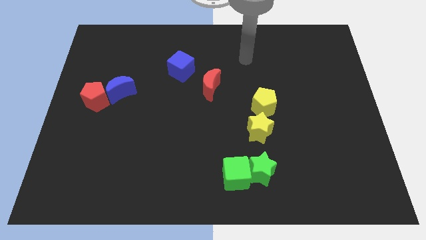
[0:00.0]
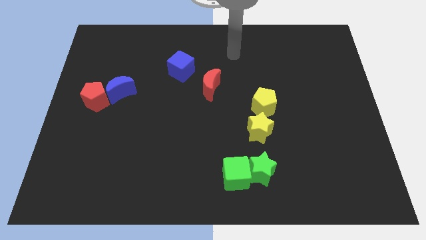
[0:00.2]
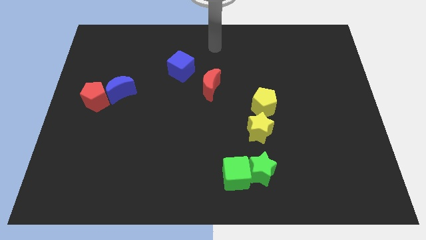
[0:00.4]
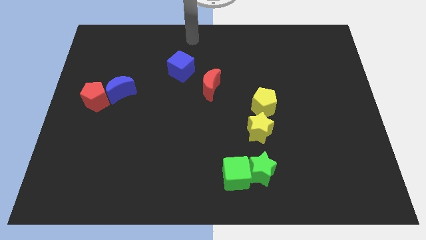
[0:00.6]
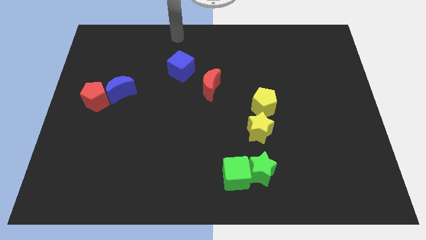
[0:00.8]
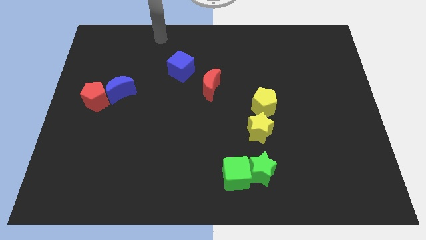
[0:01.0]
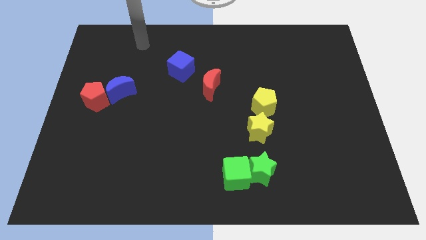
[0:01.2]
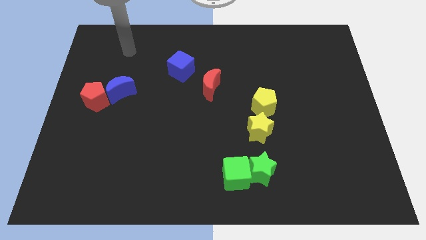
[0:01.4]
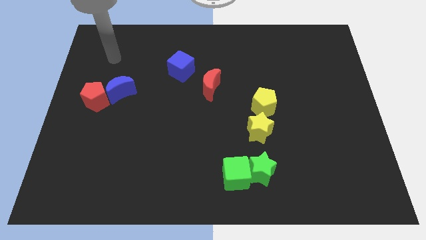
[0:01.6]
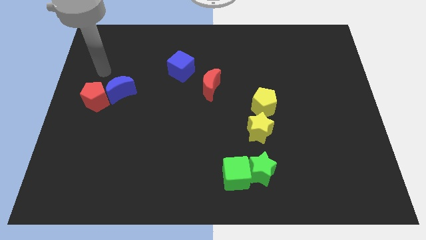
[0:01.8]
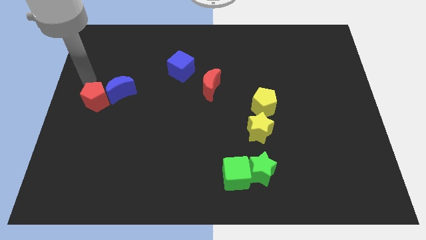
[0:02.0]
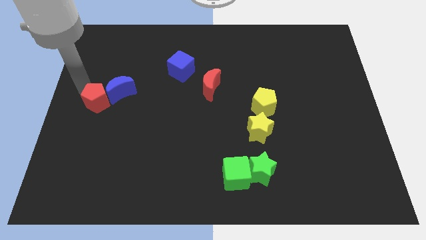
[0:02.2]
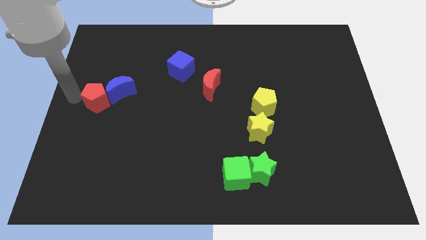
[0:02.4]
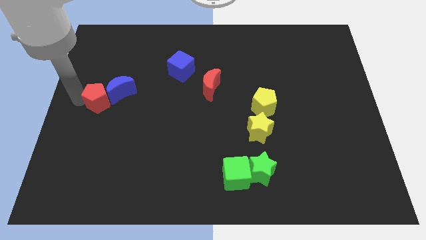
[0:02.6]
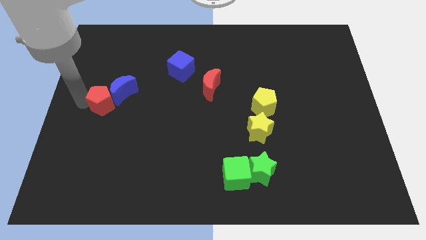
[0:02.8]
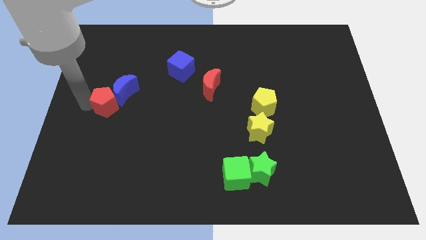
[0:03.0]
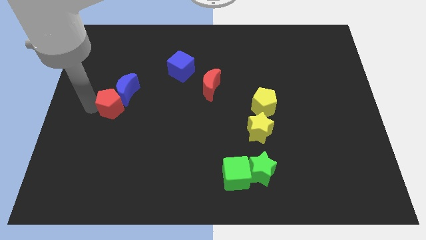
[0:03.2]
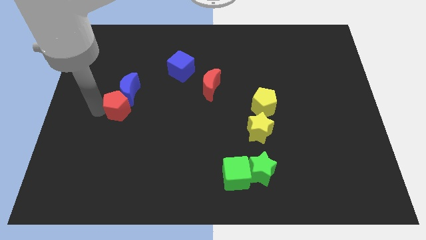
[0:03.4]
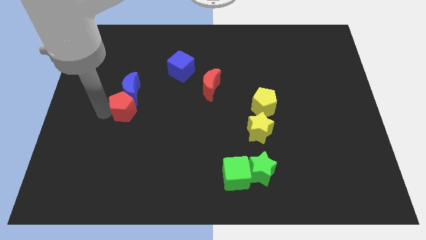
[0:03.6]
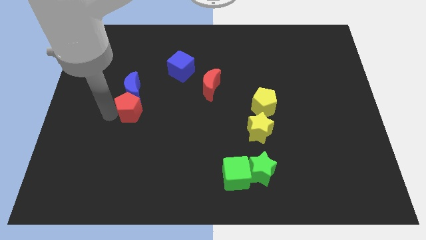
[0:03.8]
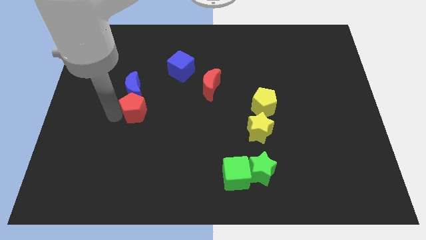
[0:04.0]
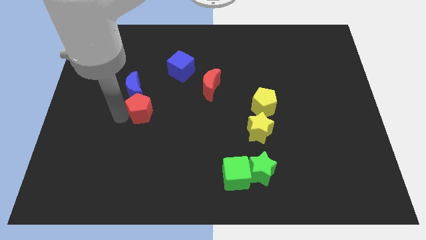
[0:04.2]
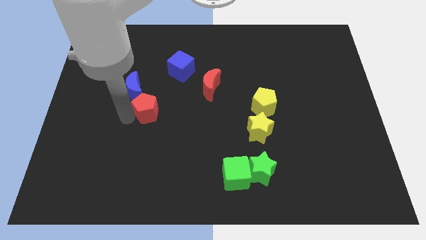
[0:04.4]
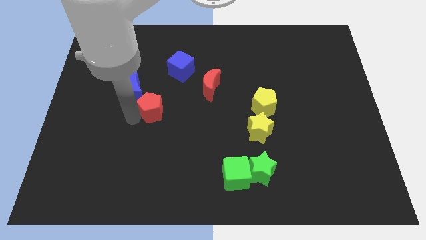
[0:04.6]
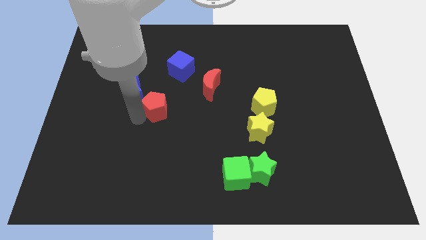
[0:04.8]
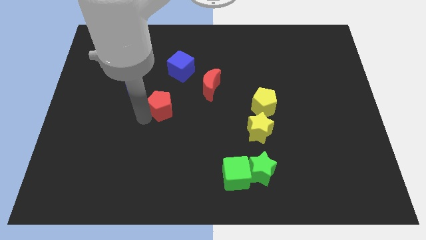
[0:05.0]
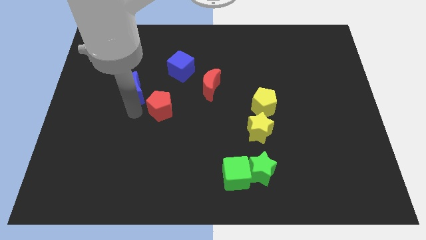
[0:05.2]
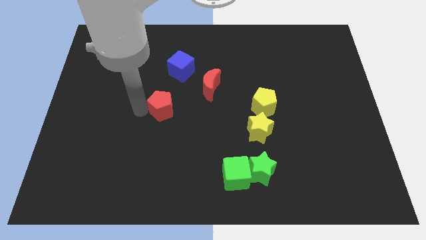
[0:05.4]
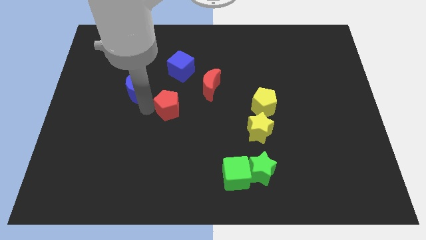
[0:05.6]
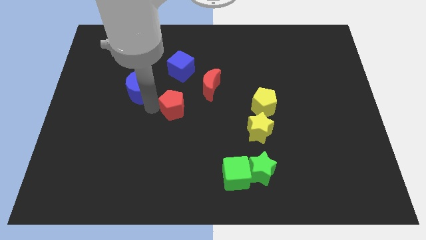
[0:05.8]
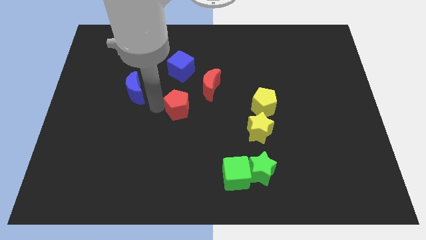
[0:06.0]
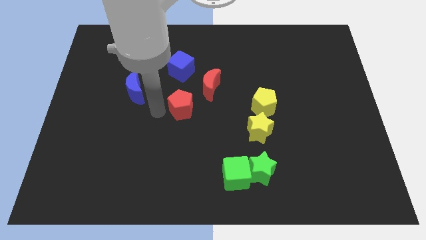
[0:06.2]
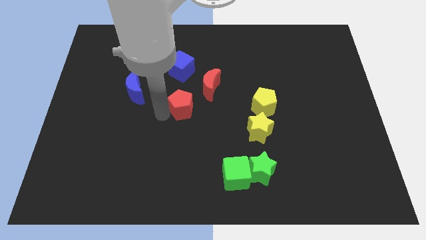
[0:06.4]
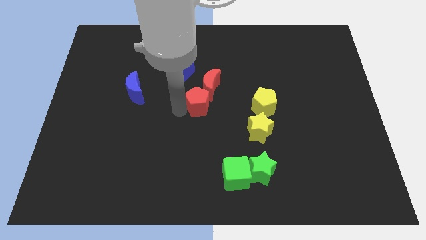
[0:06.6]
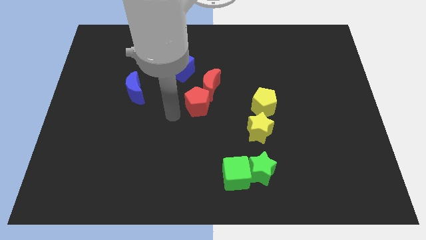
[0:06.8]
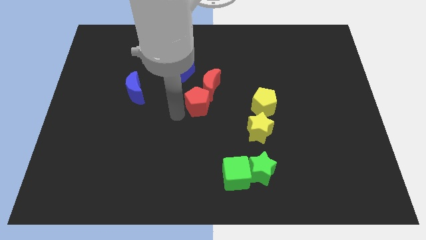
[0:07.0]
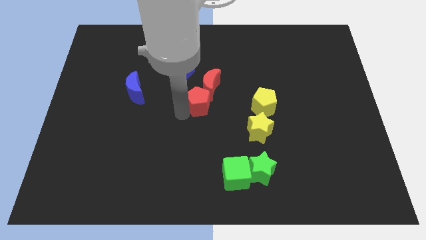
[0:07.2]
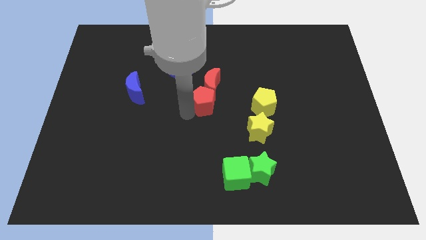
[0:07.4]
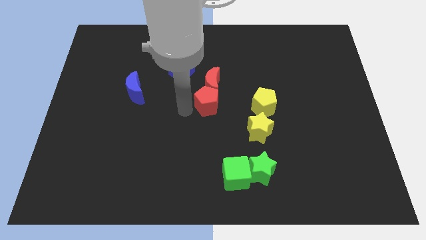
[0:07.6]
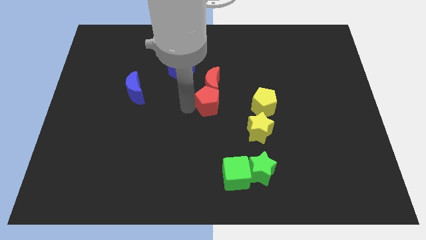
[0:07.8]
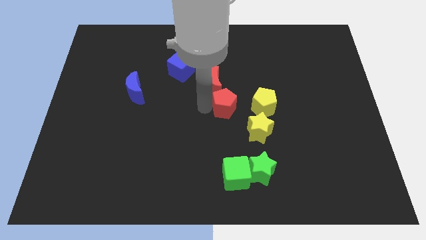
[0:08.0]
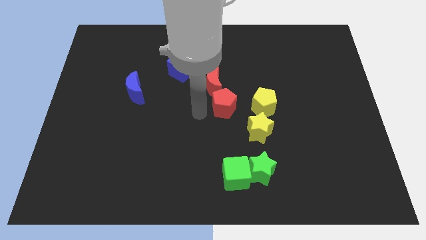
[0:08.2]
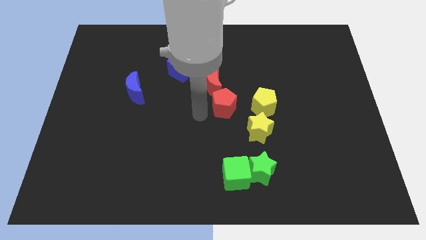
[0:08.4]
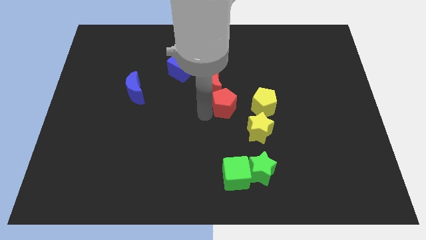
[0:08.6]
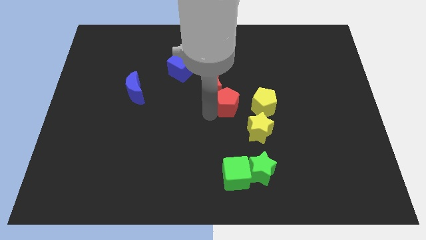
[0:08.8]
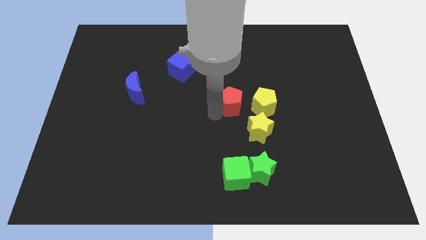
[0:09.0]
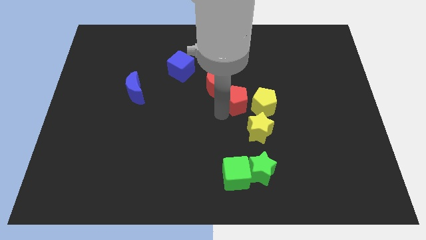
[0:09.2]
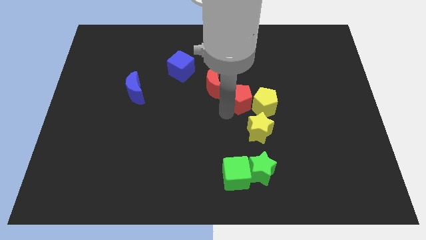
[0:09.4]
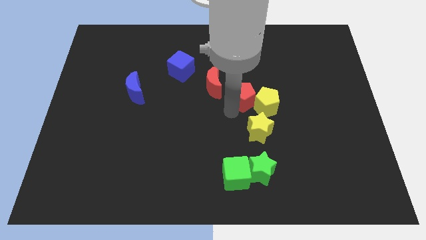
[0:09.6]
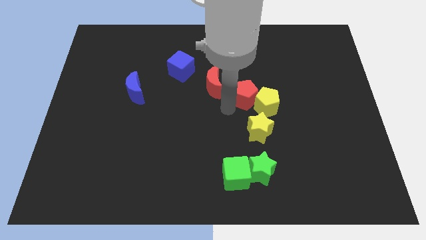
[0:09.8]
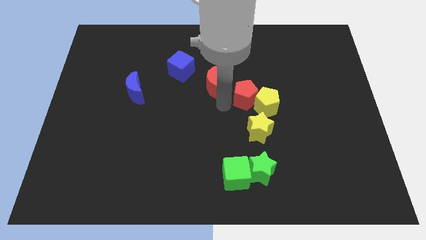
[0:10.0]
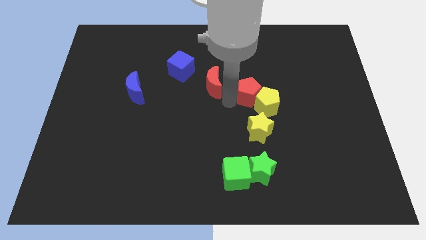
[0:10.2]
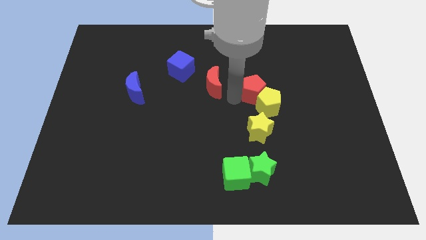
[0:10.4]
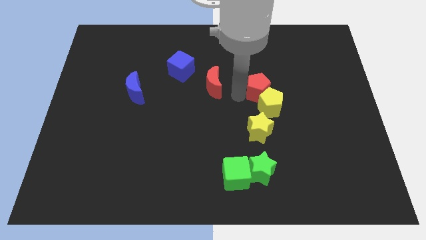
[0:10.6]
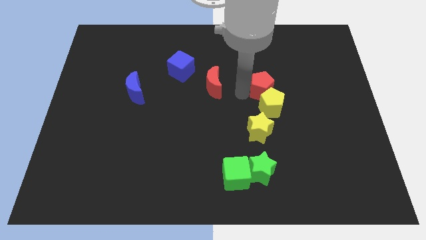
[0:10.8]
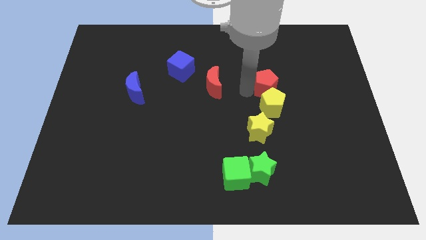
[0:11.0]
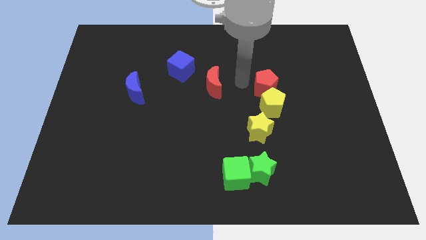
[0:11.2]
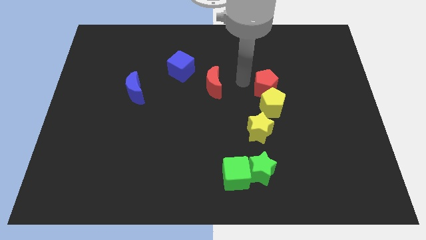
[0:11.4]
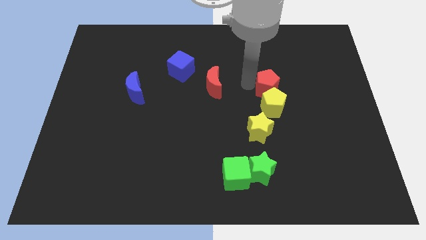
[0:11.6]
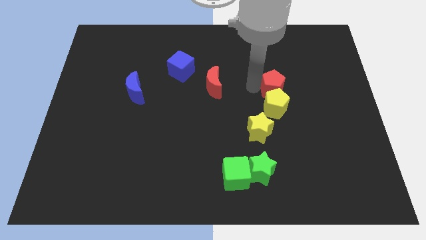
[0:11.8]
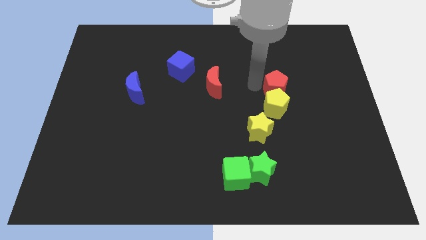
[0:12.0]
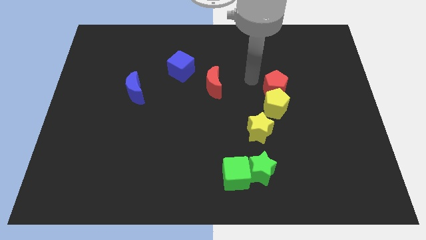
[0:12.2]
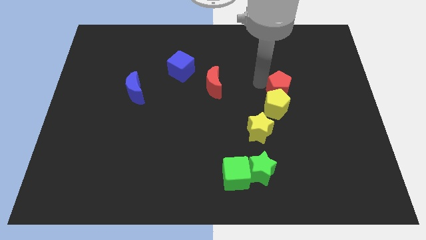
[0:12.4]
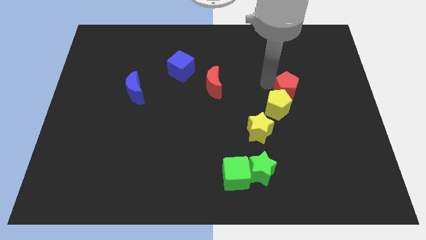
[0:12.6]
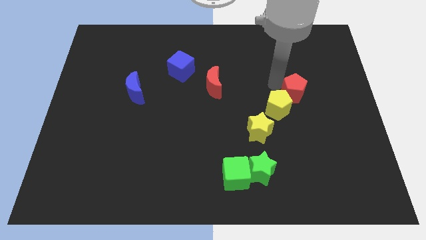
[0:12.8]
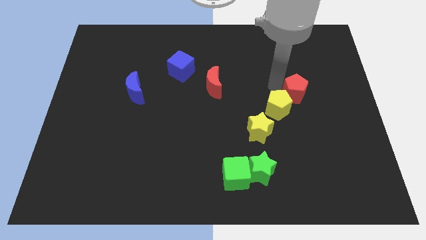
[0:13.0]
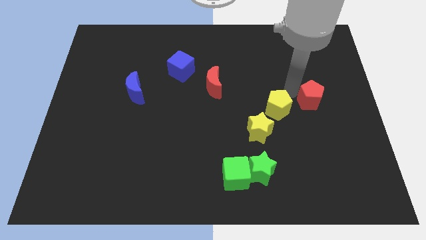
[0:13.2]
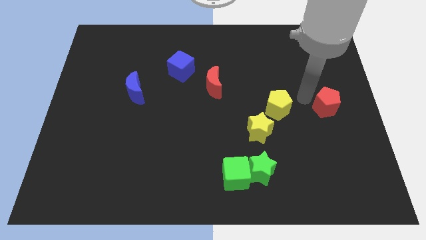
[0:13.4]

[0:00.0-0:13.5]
slide the red pentagon to the center right
